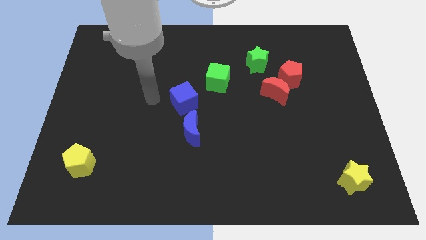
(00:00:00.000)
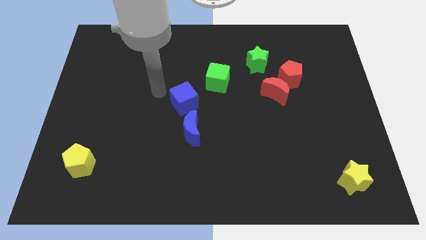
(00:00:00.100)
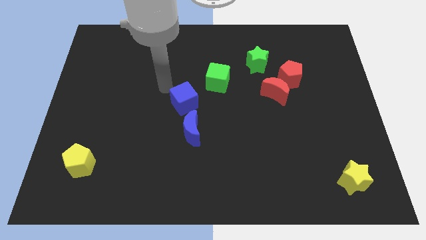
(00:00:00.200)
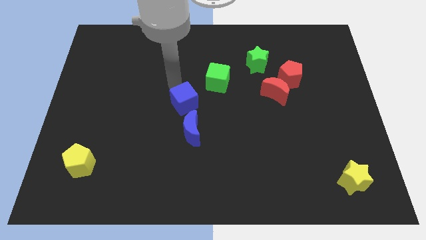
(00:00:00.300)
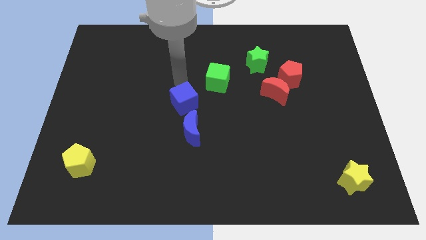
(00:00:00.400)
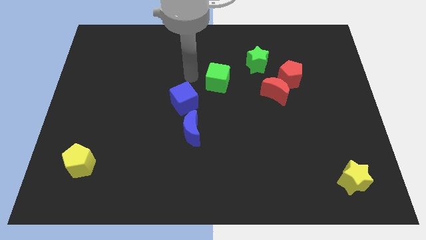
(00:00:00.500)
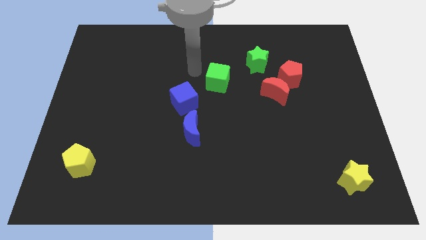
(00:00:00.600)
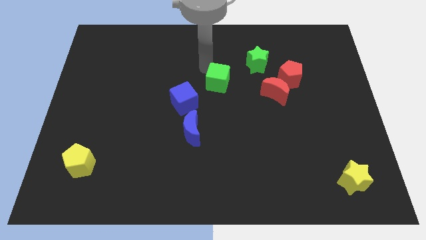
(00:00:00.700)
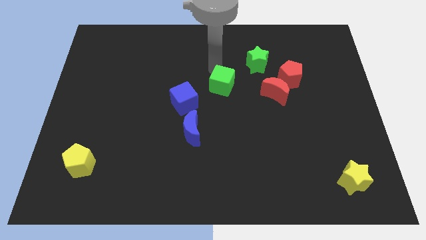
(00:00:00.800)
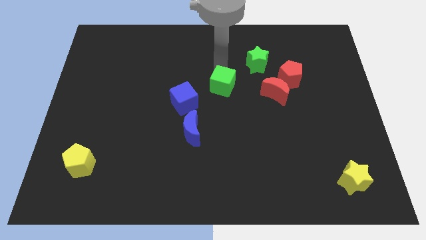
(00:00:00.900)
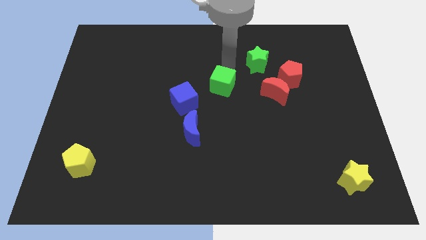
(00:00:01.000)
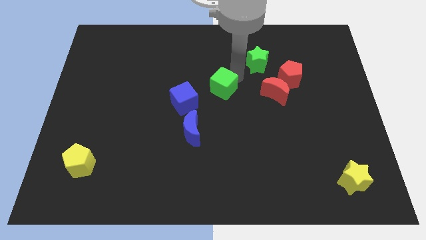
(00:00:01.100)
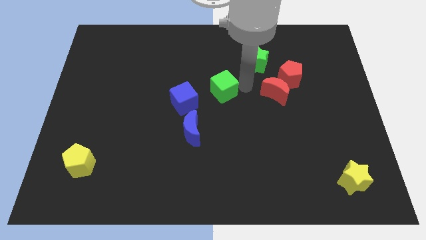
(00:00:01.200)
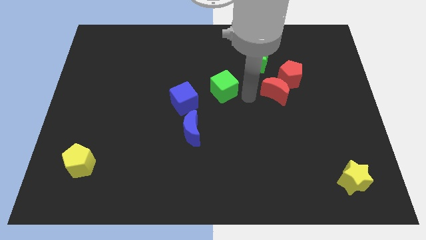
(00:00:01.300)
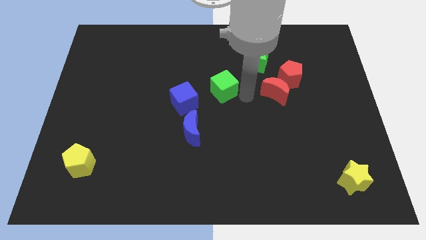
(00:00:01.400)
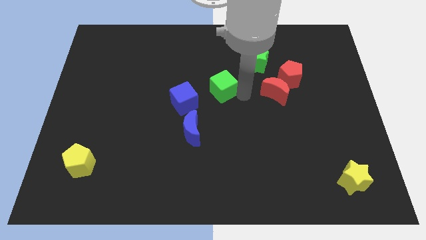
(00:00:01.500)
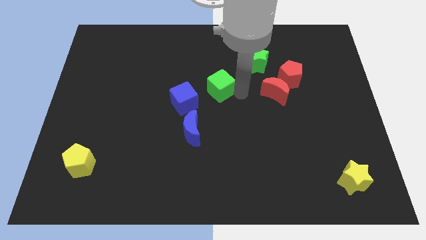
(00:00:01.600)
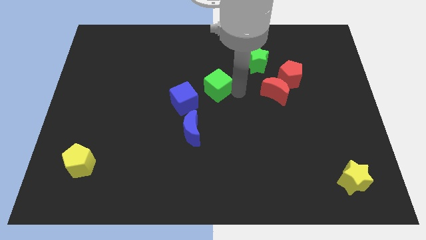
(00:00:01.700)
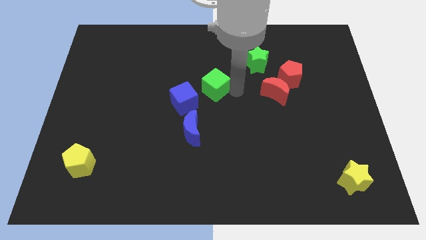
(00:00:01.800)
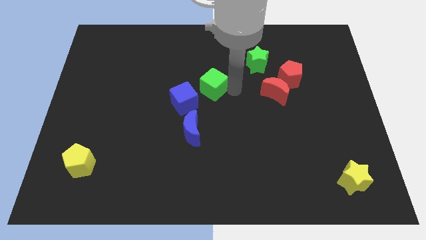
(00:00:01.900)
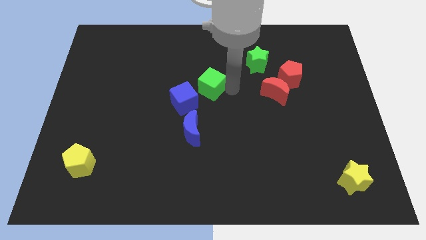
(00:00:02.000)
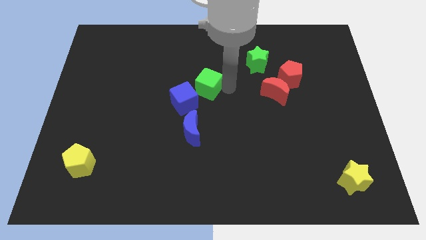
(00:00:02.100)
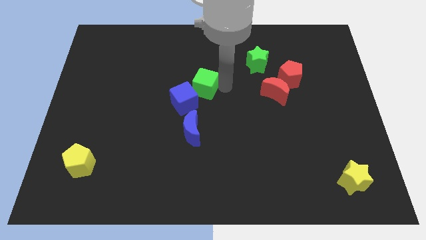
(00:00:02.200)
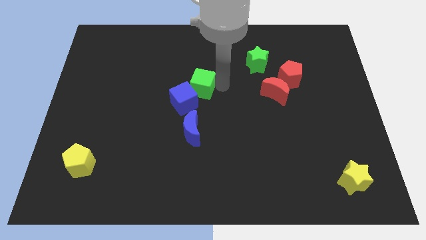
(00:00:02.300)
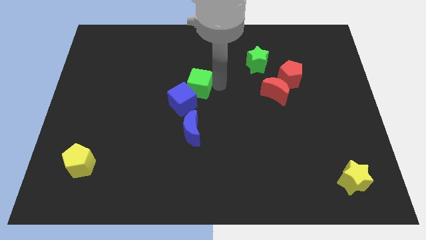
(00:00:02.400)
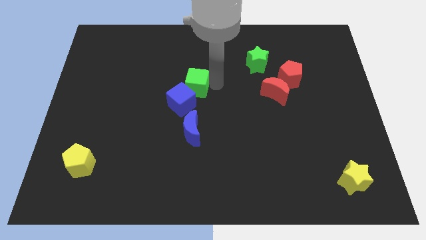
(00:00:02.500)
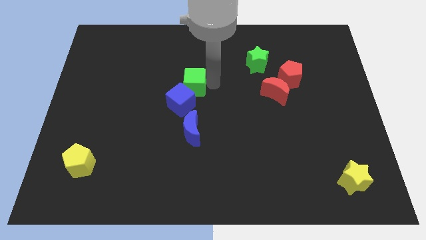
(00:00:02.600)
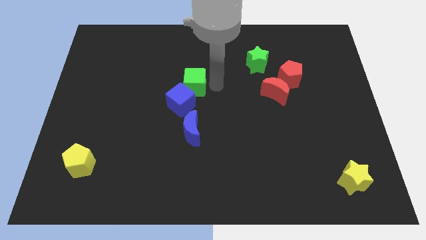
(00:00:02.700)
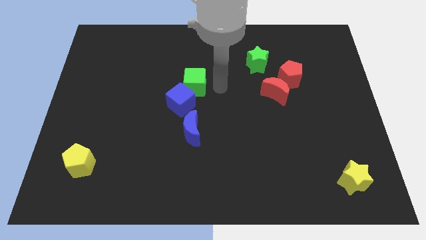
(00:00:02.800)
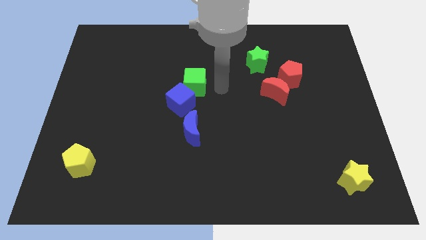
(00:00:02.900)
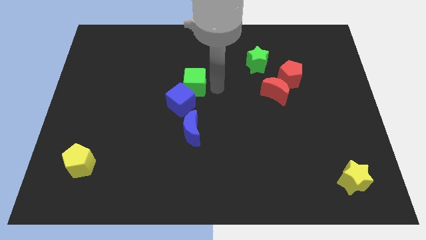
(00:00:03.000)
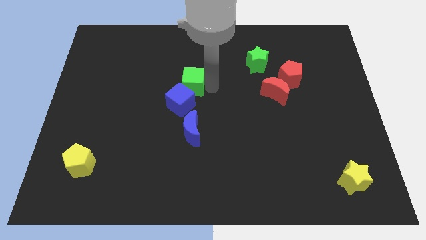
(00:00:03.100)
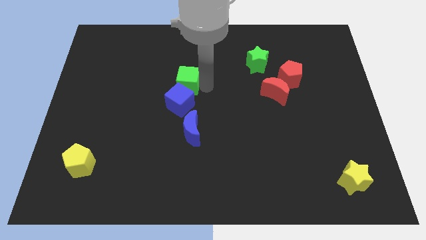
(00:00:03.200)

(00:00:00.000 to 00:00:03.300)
slightly move the green cube left

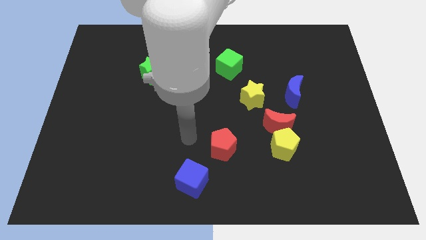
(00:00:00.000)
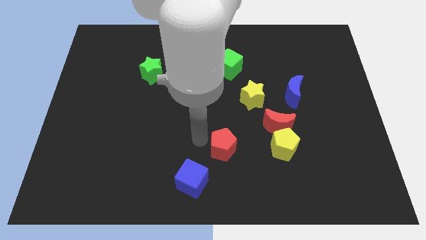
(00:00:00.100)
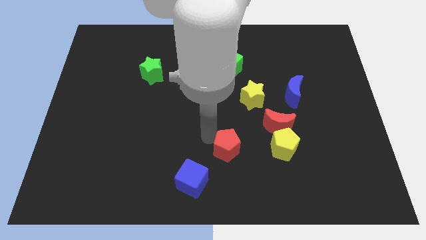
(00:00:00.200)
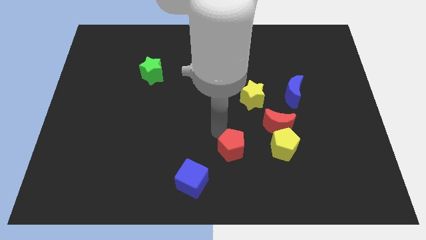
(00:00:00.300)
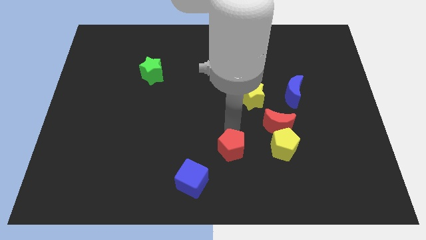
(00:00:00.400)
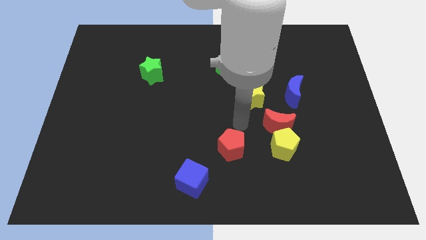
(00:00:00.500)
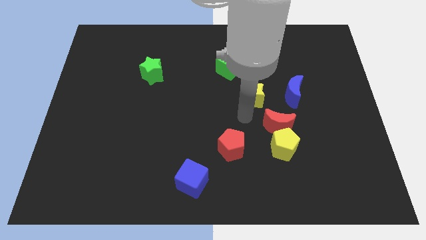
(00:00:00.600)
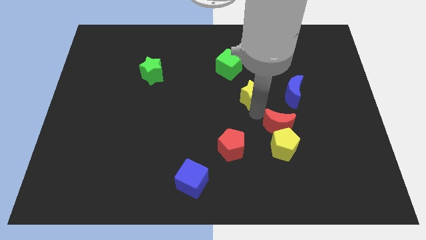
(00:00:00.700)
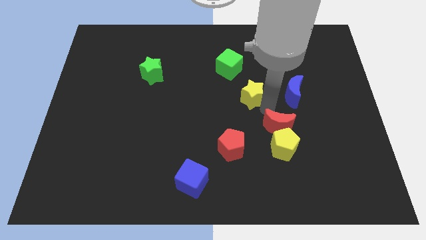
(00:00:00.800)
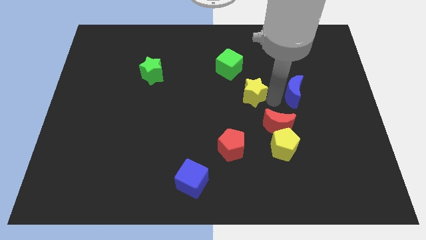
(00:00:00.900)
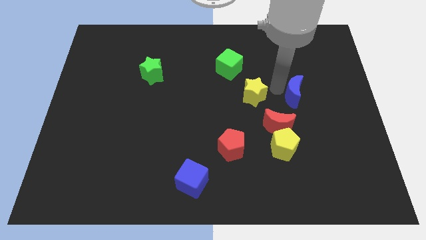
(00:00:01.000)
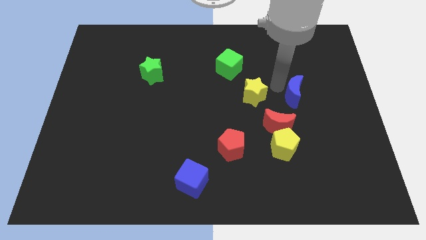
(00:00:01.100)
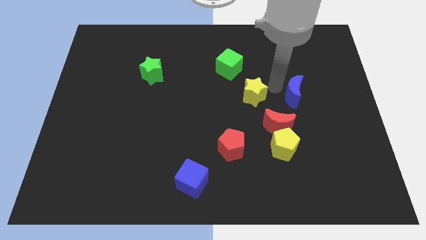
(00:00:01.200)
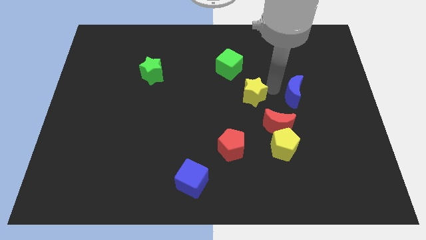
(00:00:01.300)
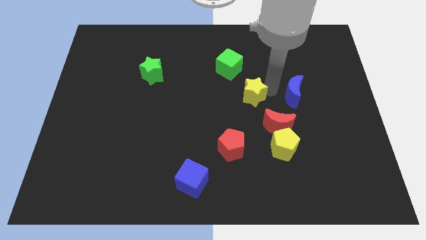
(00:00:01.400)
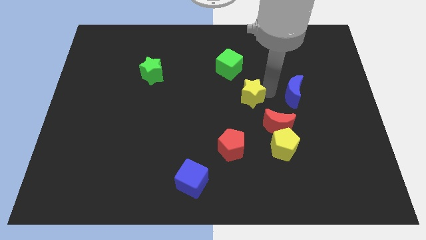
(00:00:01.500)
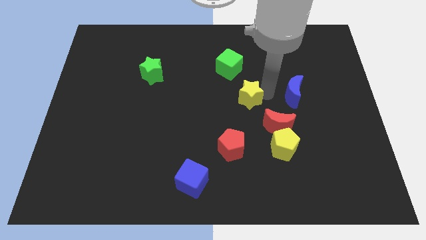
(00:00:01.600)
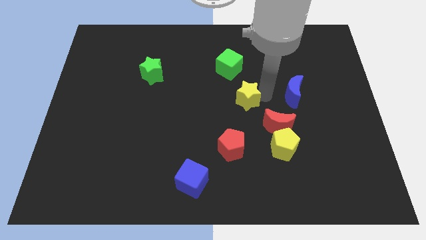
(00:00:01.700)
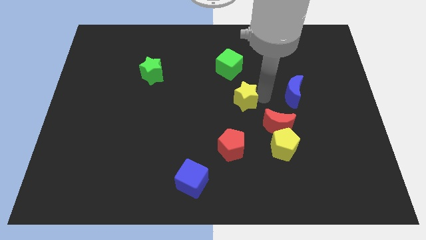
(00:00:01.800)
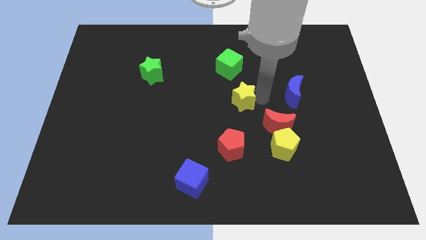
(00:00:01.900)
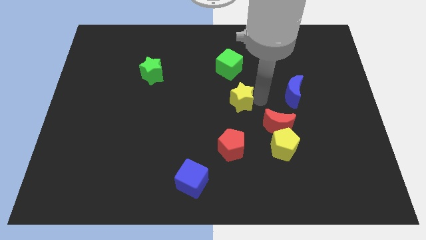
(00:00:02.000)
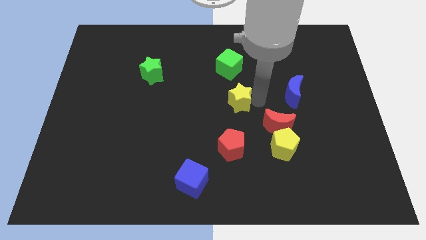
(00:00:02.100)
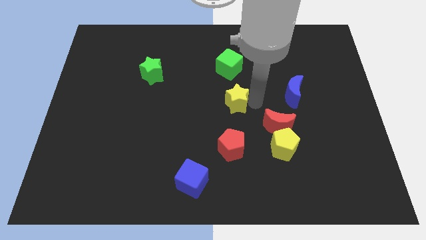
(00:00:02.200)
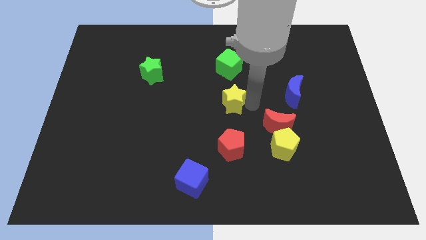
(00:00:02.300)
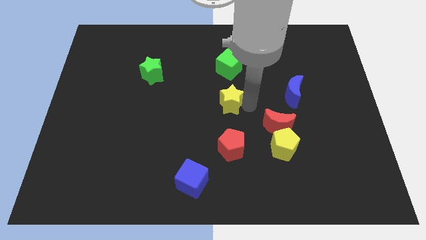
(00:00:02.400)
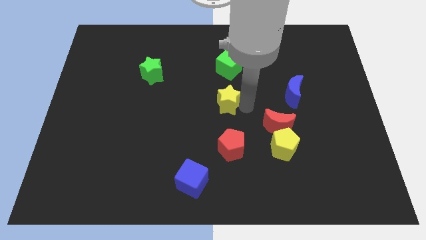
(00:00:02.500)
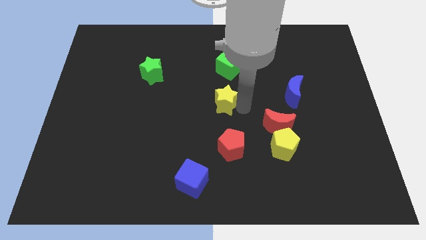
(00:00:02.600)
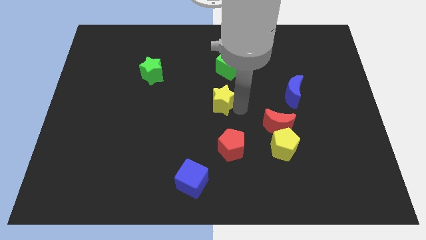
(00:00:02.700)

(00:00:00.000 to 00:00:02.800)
slide the yellow star to the left a little

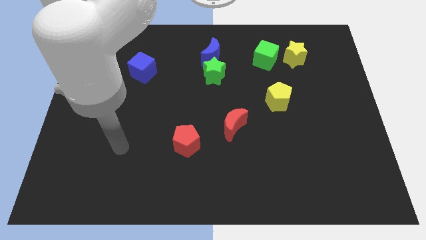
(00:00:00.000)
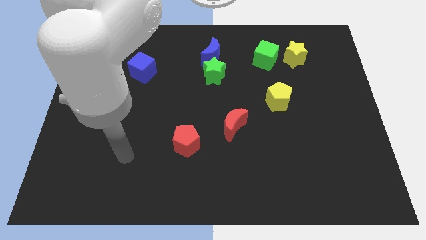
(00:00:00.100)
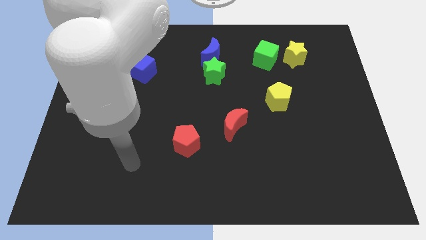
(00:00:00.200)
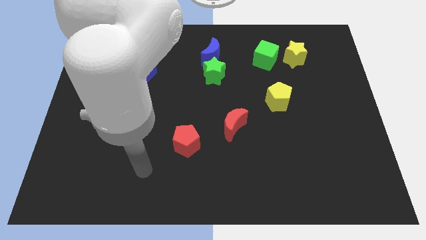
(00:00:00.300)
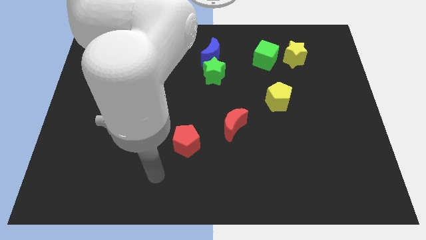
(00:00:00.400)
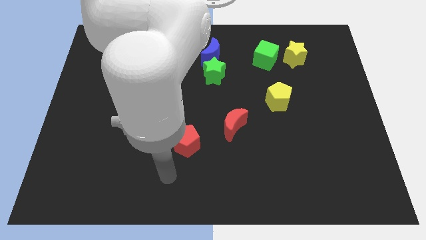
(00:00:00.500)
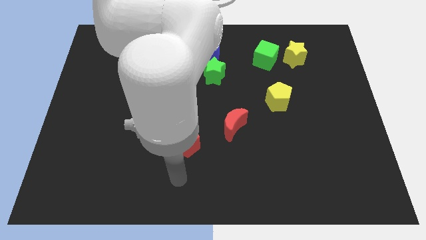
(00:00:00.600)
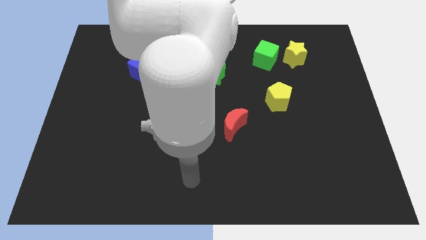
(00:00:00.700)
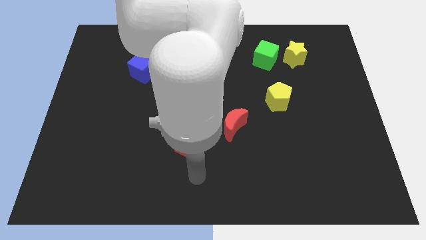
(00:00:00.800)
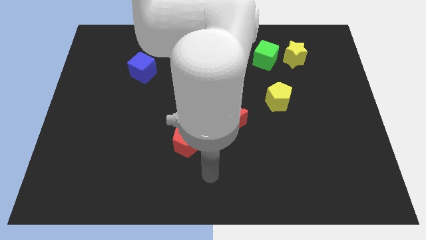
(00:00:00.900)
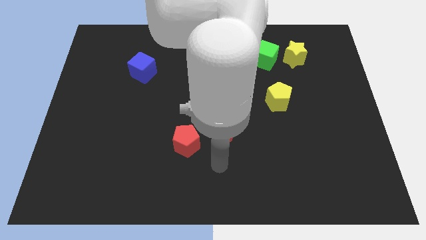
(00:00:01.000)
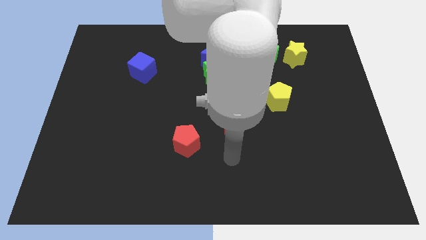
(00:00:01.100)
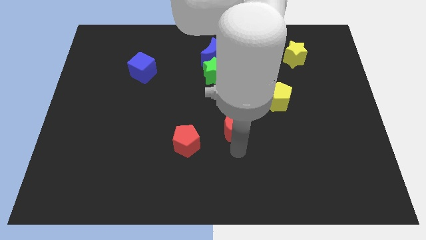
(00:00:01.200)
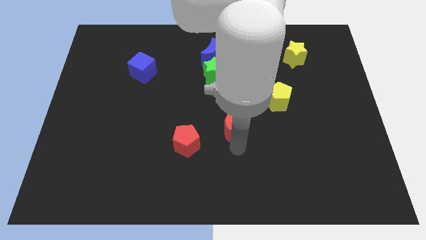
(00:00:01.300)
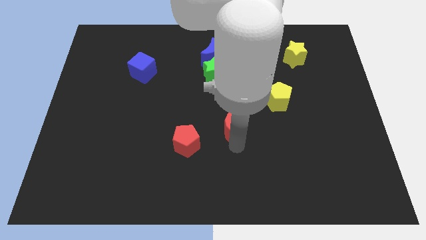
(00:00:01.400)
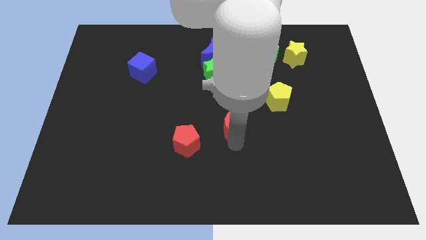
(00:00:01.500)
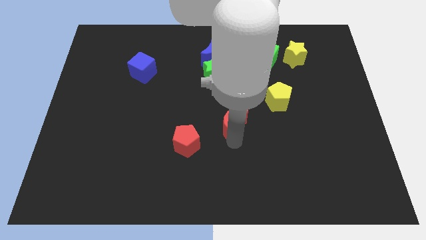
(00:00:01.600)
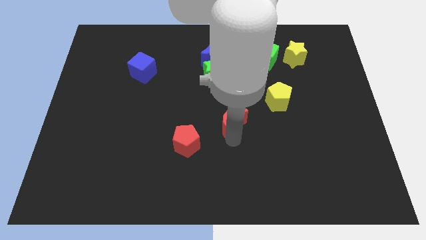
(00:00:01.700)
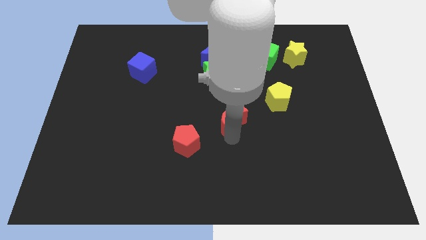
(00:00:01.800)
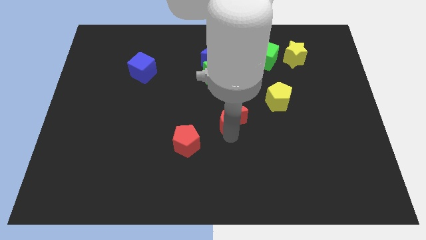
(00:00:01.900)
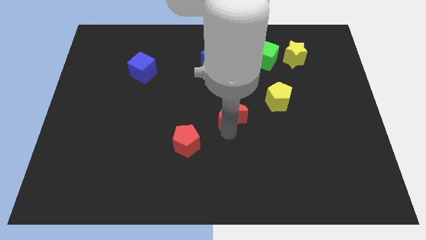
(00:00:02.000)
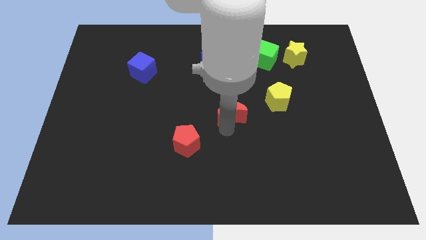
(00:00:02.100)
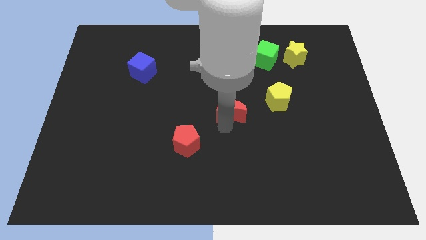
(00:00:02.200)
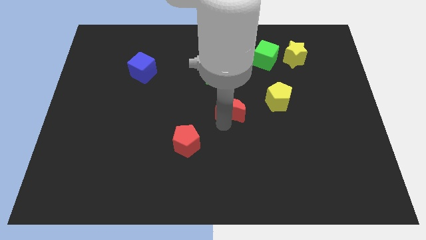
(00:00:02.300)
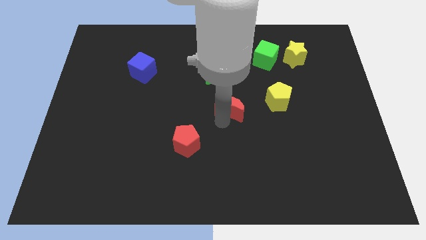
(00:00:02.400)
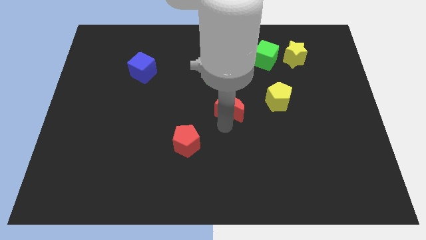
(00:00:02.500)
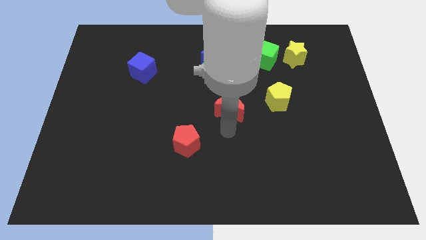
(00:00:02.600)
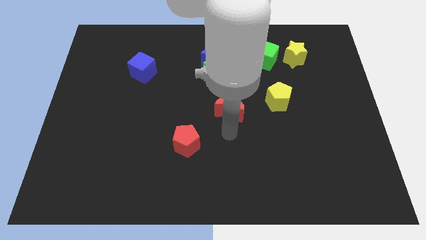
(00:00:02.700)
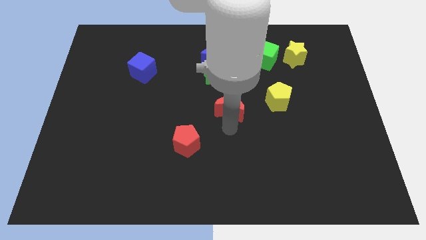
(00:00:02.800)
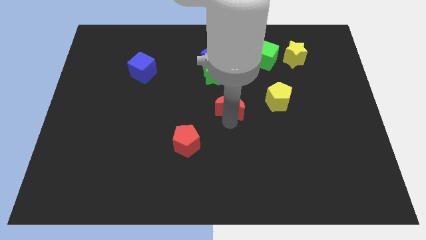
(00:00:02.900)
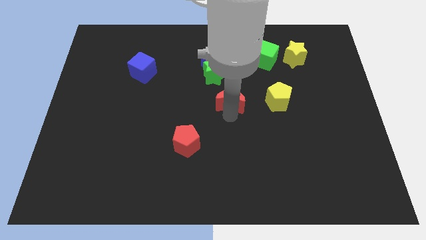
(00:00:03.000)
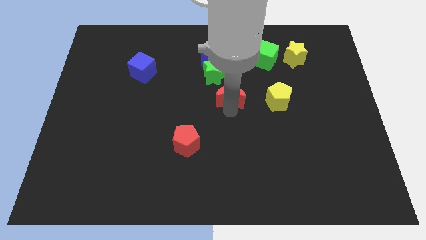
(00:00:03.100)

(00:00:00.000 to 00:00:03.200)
move the red moon a bit upwards
